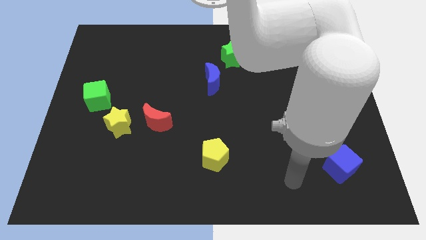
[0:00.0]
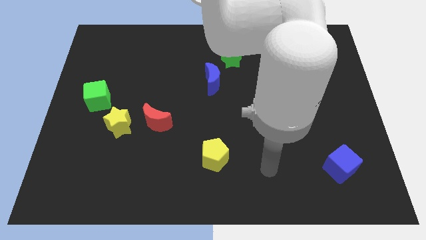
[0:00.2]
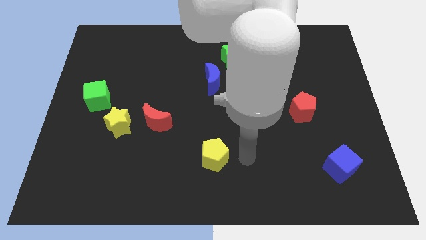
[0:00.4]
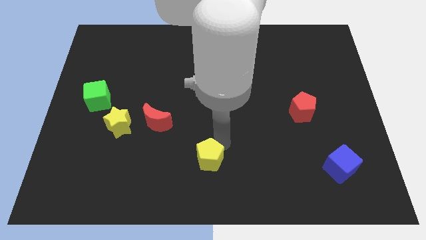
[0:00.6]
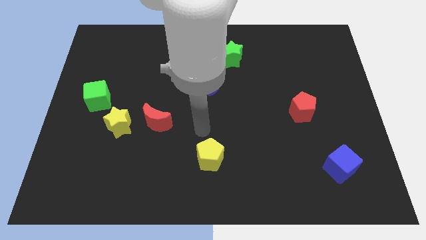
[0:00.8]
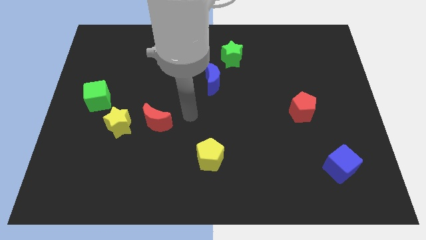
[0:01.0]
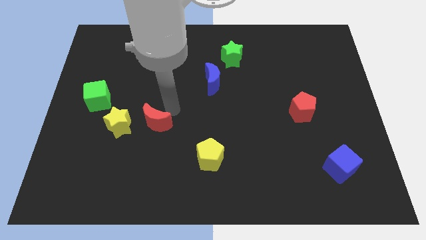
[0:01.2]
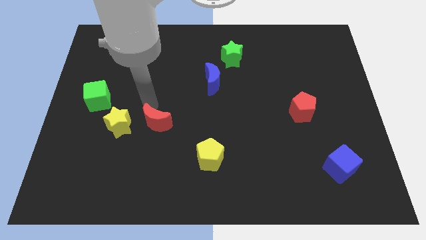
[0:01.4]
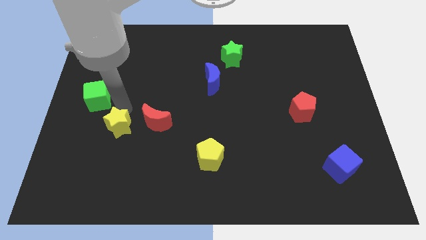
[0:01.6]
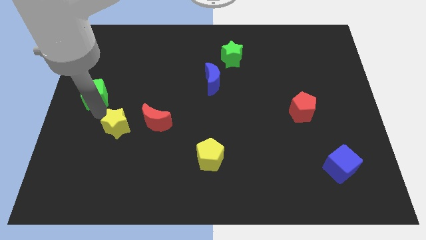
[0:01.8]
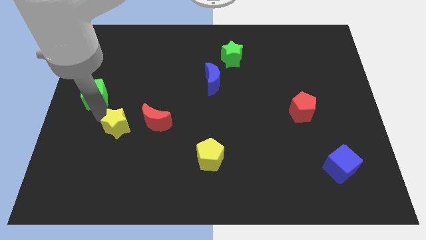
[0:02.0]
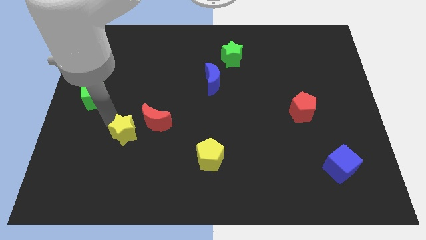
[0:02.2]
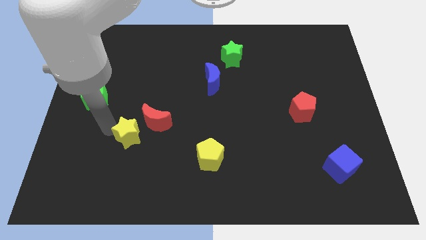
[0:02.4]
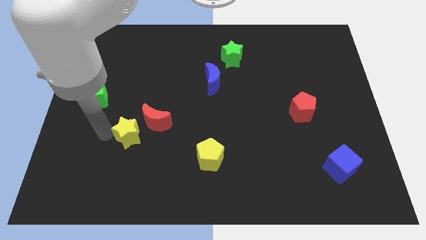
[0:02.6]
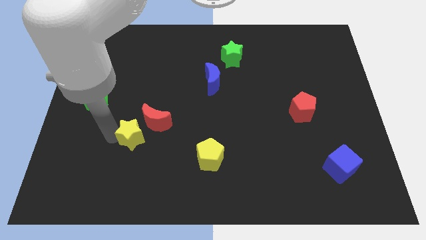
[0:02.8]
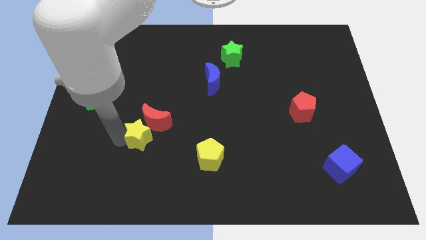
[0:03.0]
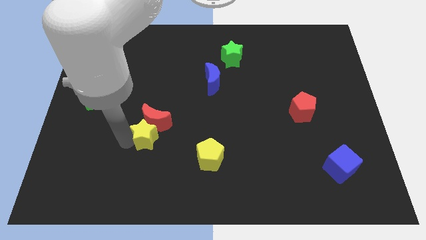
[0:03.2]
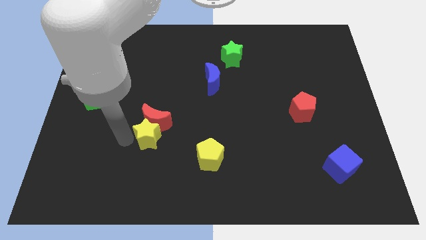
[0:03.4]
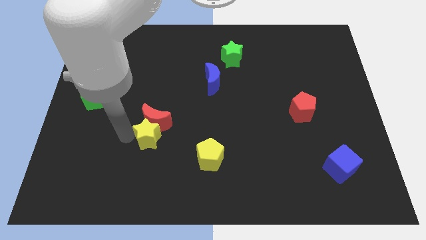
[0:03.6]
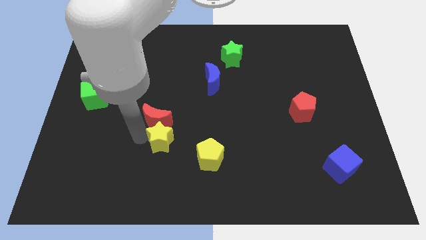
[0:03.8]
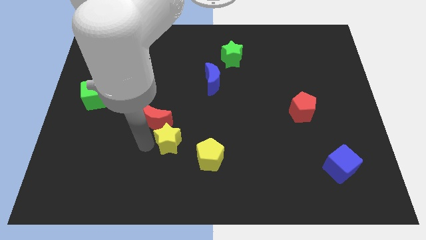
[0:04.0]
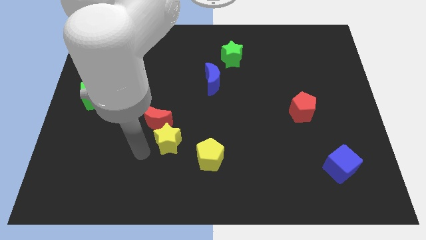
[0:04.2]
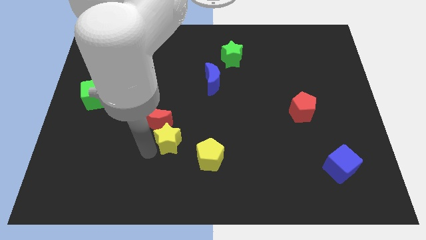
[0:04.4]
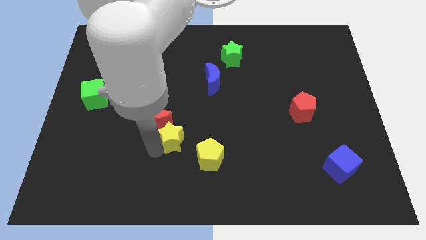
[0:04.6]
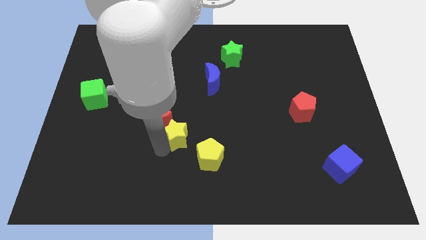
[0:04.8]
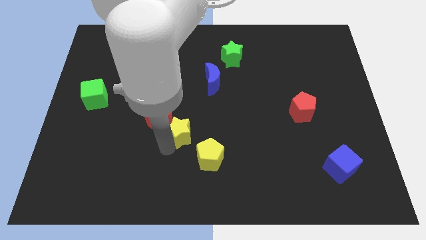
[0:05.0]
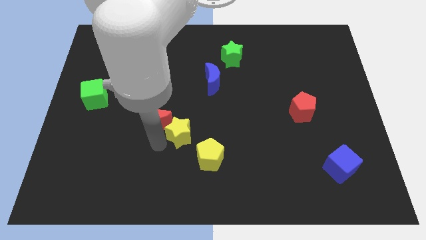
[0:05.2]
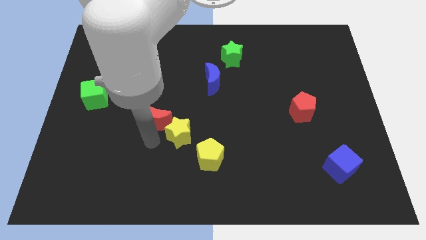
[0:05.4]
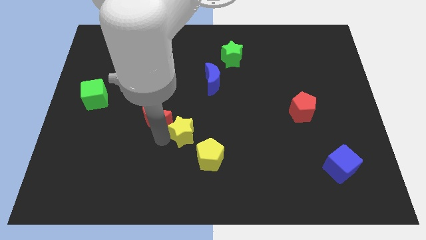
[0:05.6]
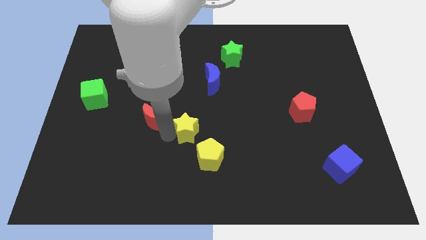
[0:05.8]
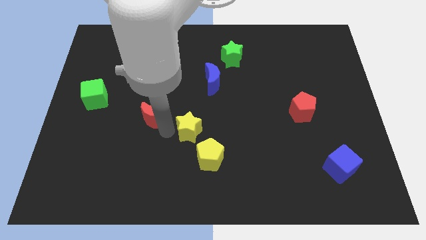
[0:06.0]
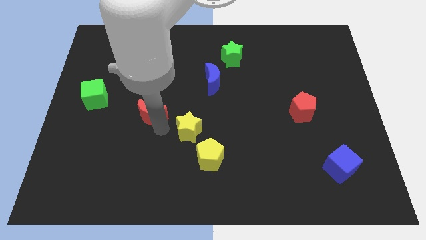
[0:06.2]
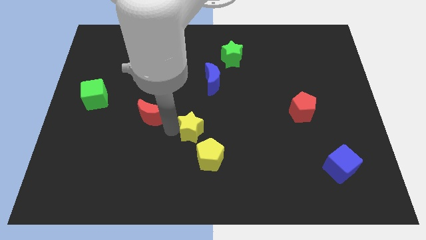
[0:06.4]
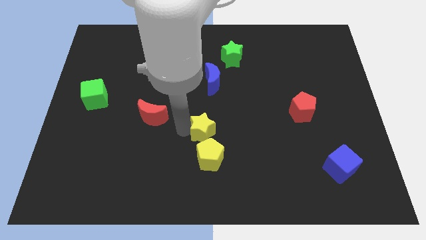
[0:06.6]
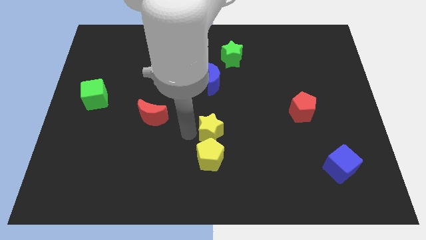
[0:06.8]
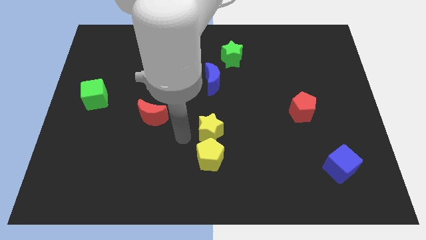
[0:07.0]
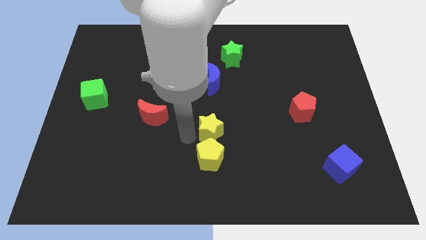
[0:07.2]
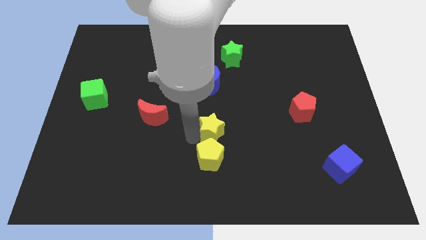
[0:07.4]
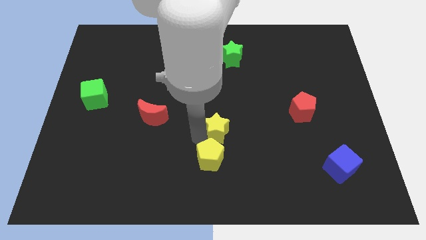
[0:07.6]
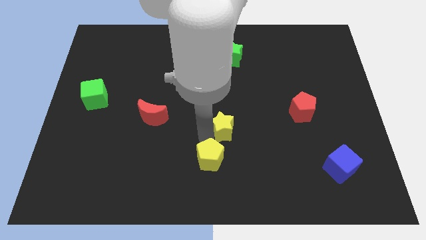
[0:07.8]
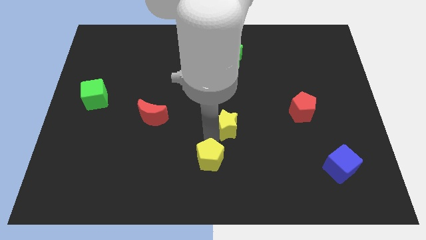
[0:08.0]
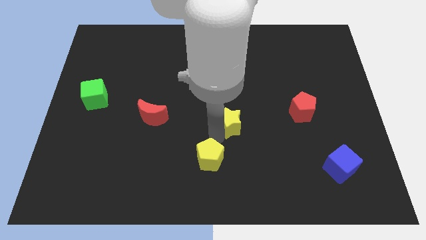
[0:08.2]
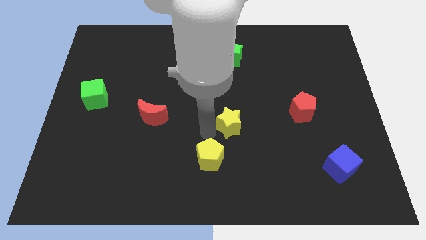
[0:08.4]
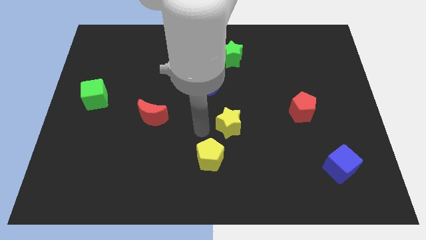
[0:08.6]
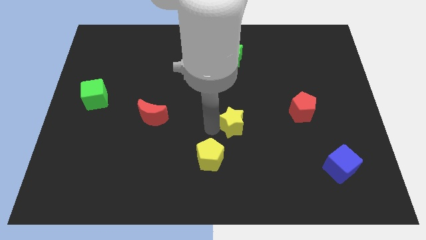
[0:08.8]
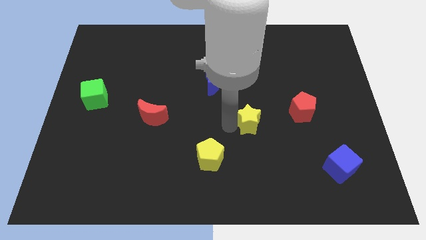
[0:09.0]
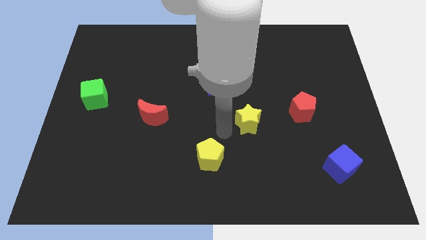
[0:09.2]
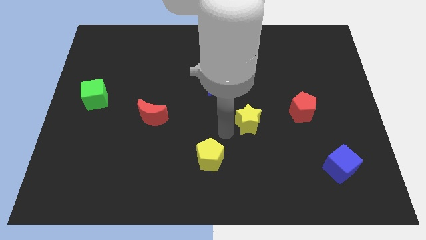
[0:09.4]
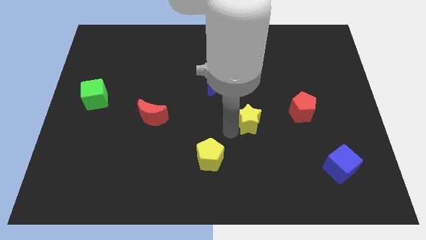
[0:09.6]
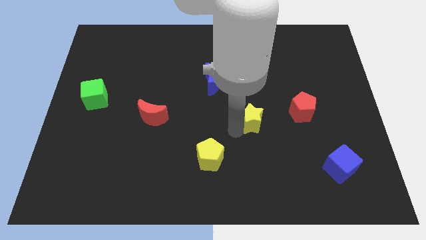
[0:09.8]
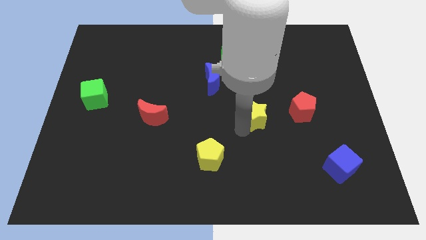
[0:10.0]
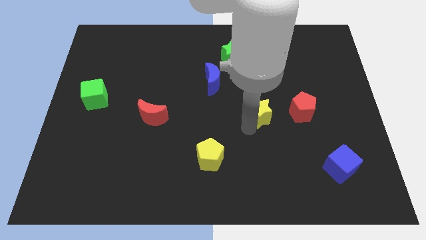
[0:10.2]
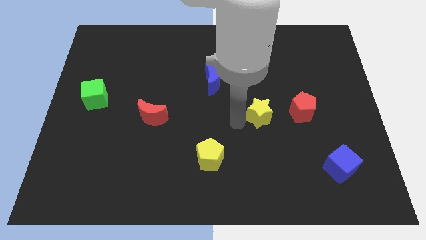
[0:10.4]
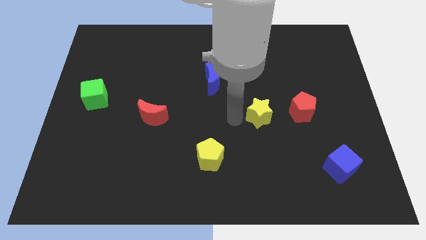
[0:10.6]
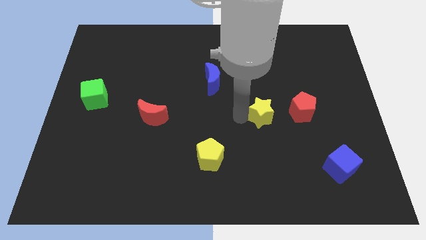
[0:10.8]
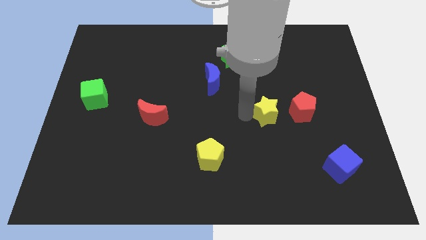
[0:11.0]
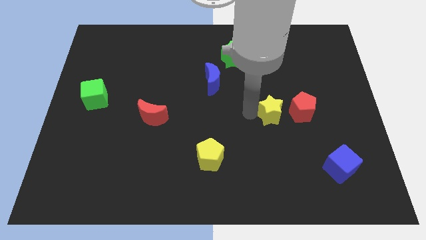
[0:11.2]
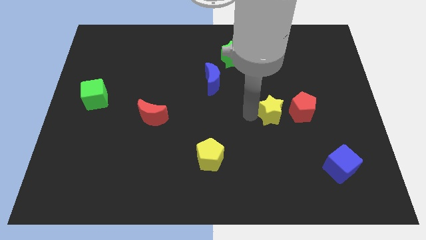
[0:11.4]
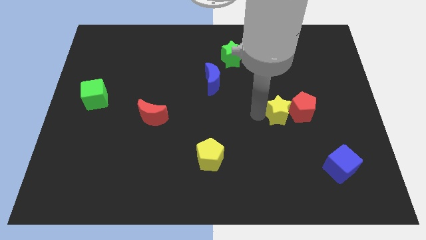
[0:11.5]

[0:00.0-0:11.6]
move the yellow star to the red pentagon

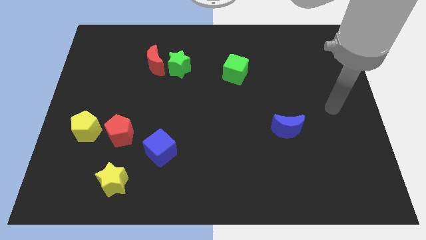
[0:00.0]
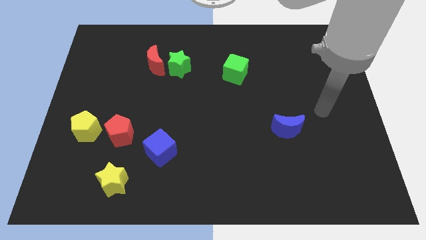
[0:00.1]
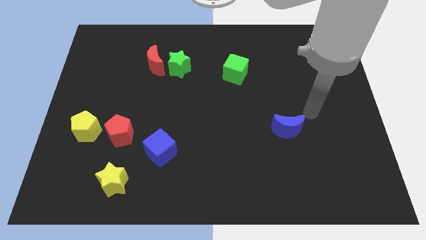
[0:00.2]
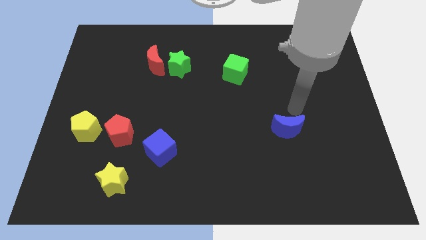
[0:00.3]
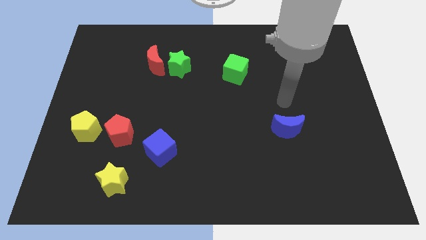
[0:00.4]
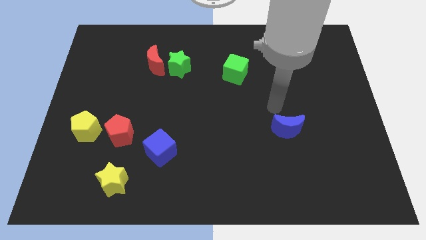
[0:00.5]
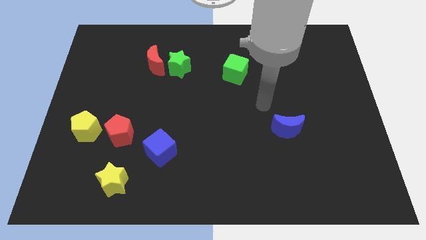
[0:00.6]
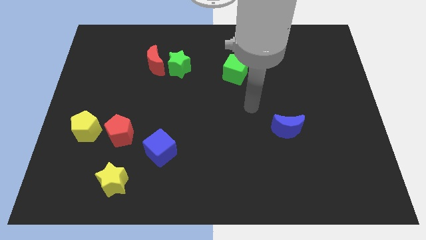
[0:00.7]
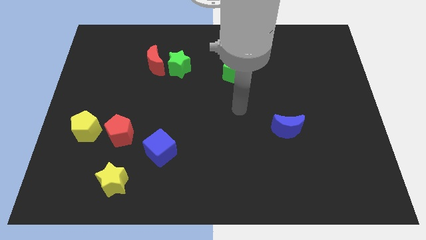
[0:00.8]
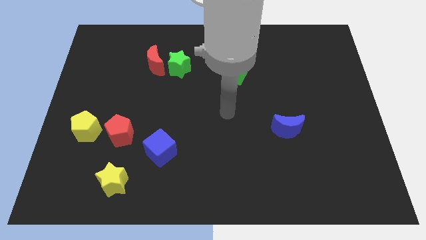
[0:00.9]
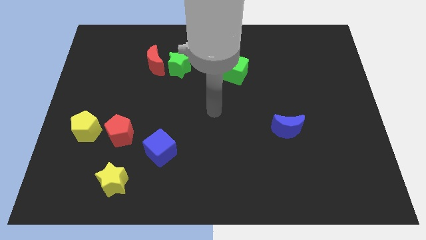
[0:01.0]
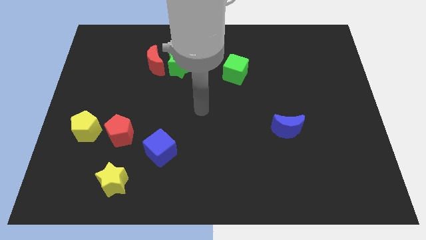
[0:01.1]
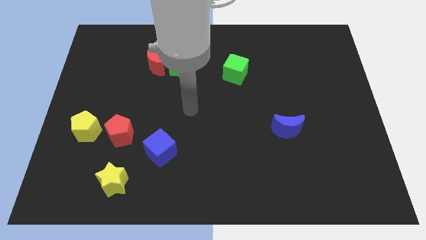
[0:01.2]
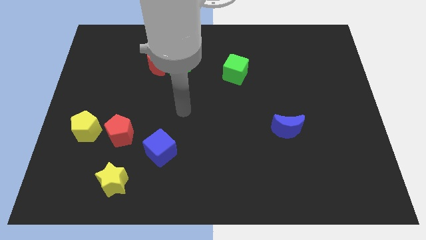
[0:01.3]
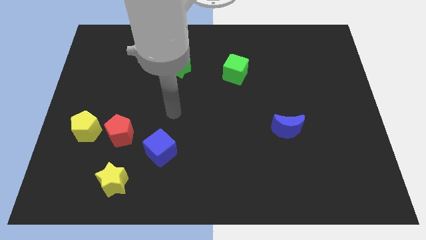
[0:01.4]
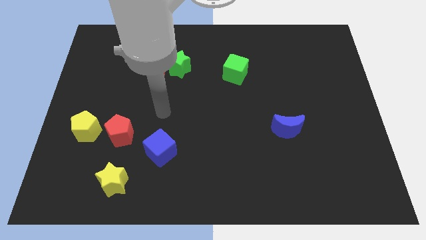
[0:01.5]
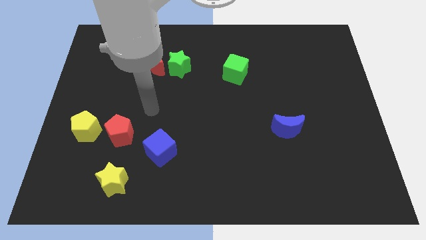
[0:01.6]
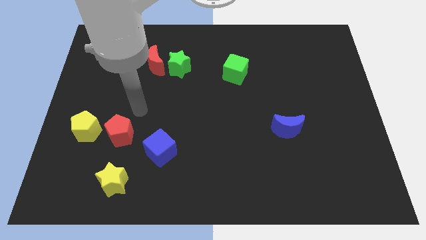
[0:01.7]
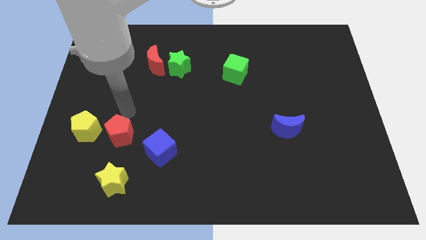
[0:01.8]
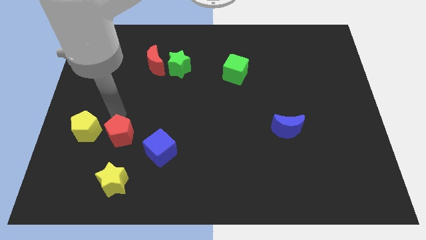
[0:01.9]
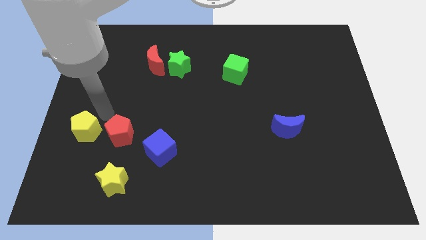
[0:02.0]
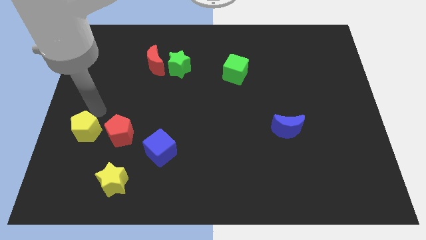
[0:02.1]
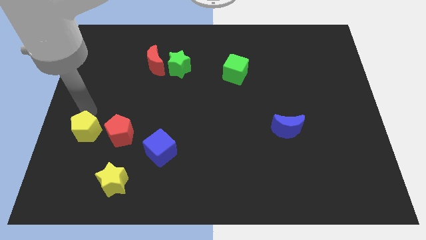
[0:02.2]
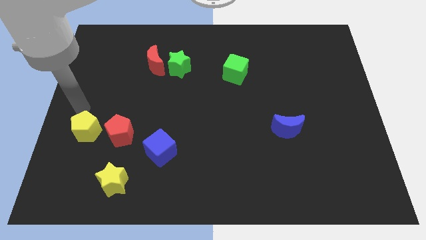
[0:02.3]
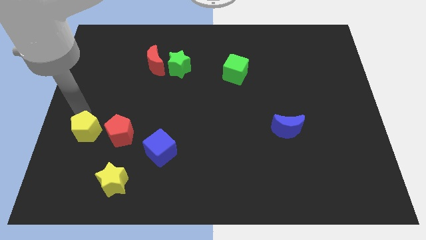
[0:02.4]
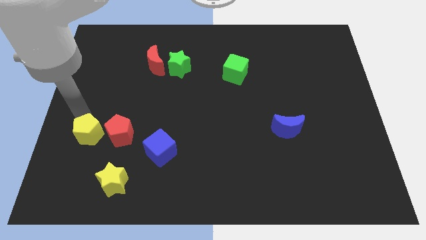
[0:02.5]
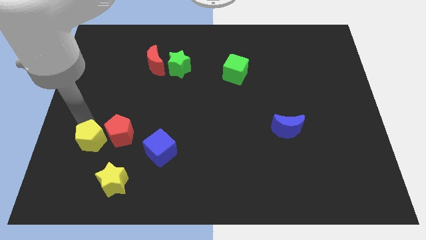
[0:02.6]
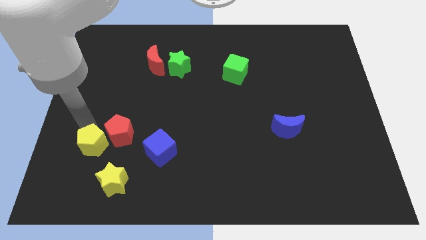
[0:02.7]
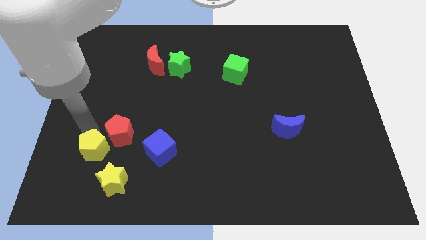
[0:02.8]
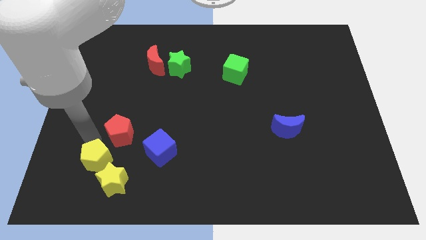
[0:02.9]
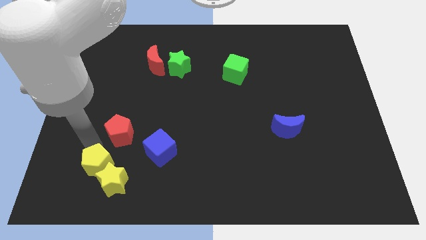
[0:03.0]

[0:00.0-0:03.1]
push the yellow pentagon to the yellow star
